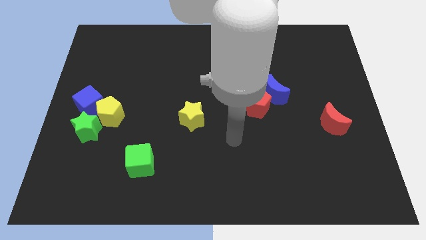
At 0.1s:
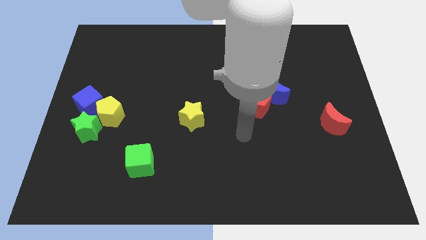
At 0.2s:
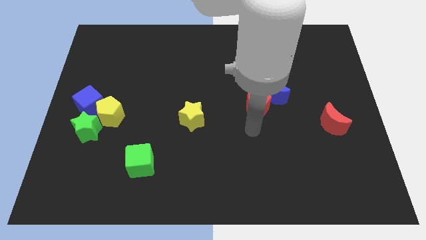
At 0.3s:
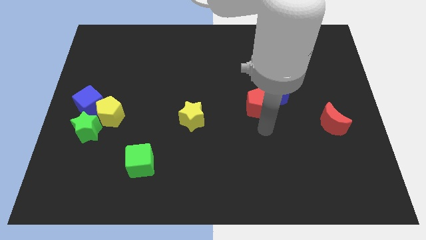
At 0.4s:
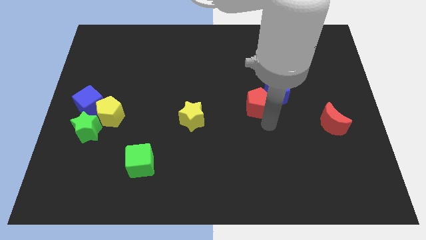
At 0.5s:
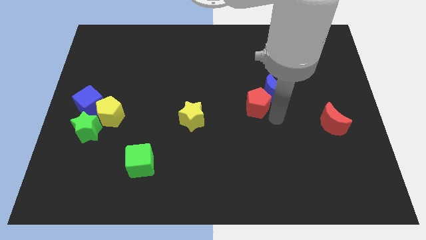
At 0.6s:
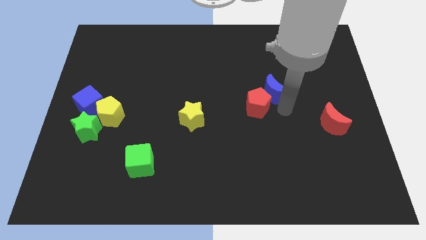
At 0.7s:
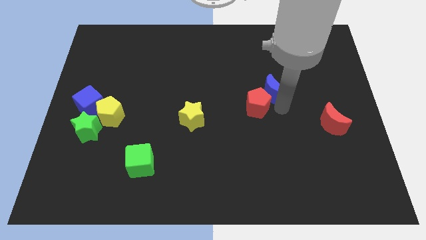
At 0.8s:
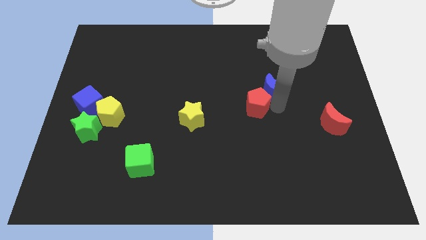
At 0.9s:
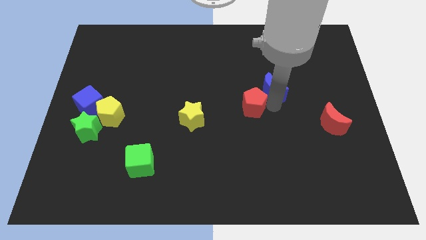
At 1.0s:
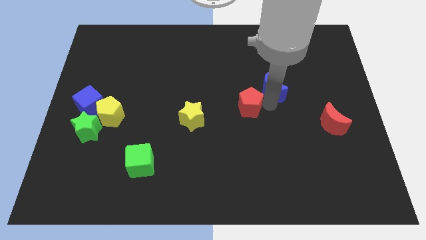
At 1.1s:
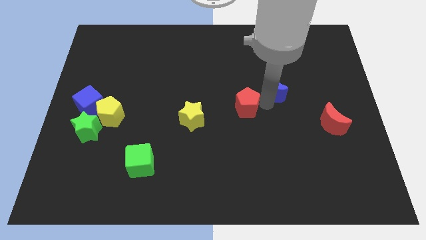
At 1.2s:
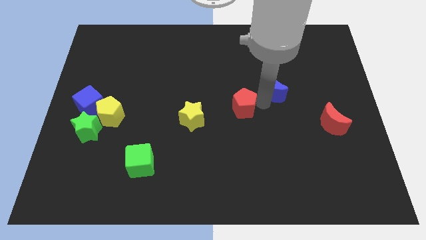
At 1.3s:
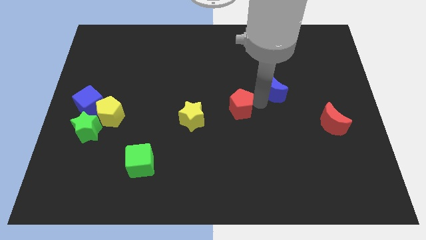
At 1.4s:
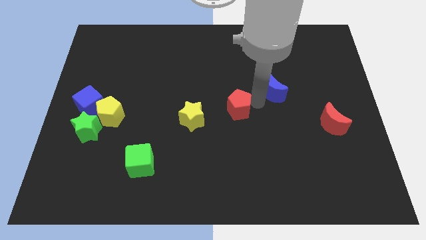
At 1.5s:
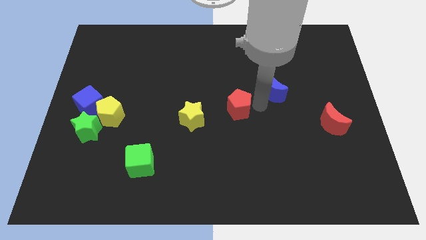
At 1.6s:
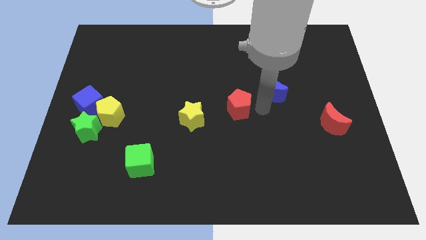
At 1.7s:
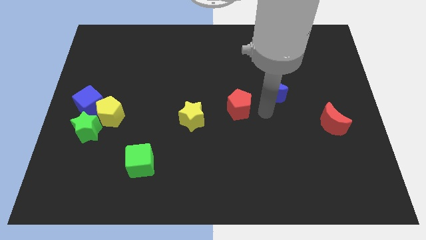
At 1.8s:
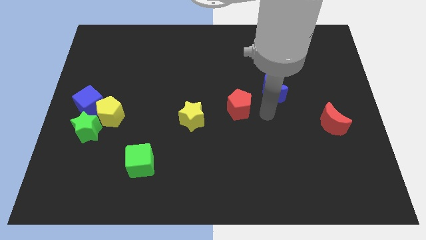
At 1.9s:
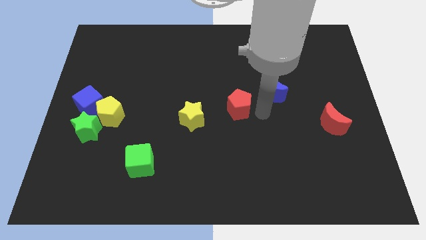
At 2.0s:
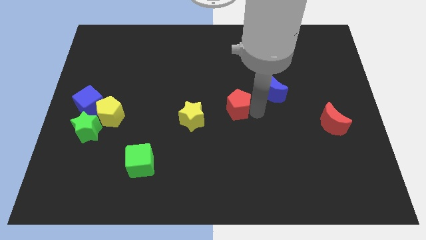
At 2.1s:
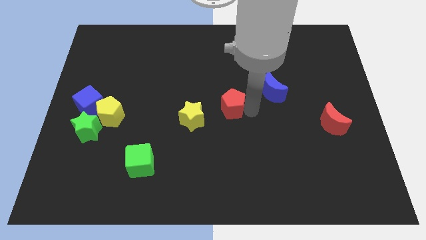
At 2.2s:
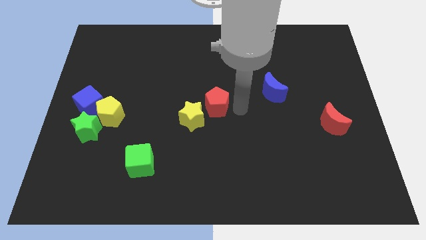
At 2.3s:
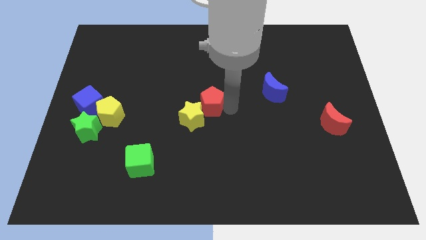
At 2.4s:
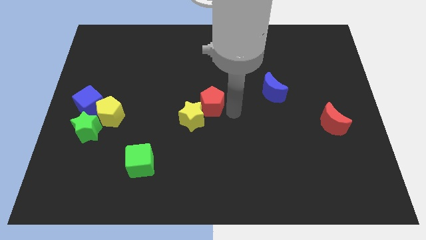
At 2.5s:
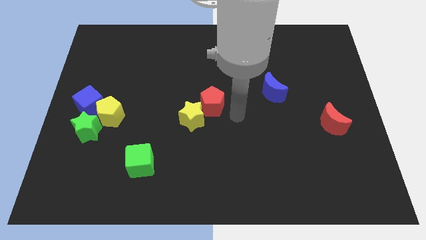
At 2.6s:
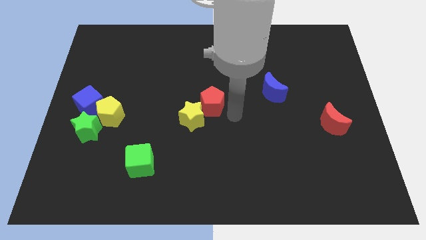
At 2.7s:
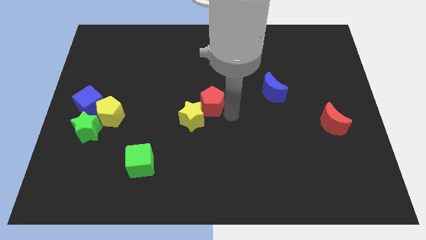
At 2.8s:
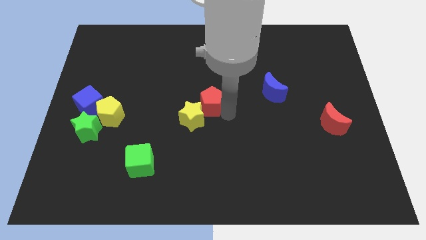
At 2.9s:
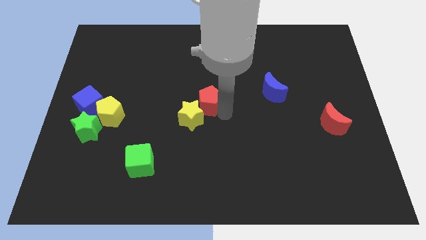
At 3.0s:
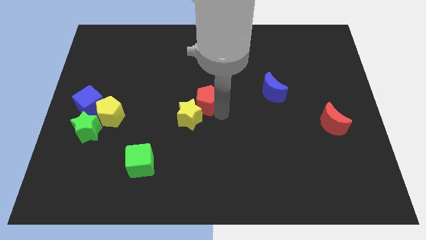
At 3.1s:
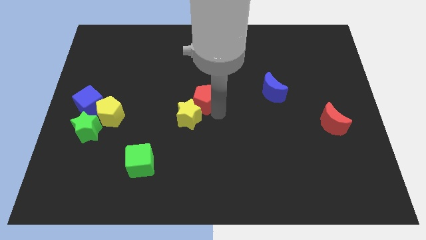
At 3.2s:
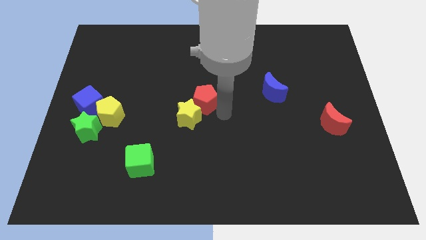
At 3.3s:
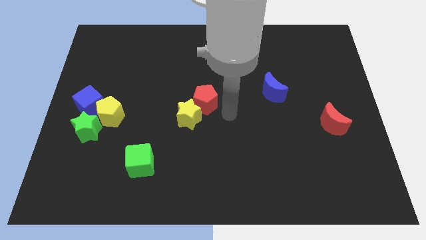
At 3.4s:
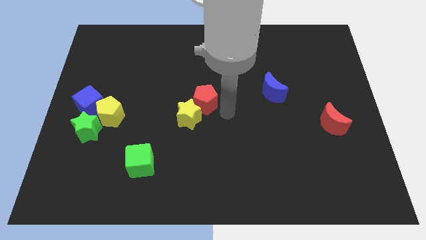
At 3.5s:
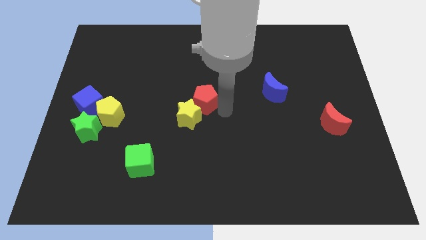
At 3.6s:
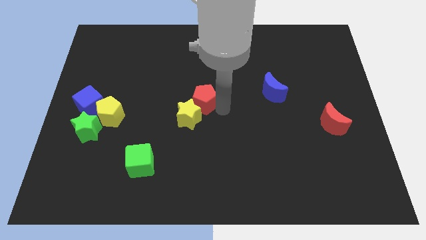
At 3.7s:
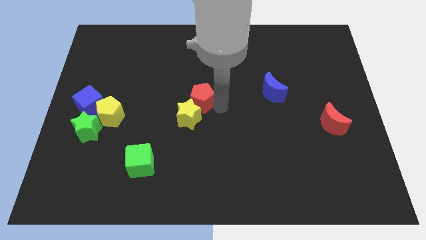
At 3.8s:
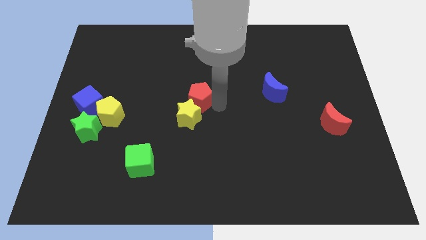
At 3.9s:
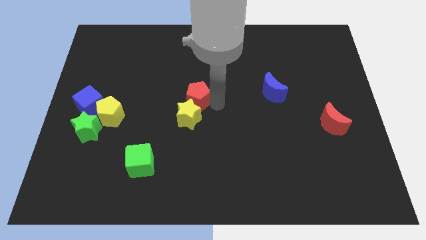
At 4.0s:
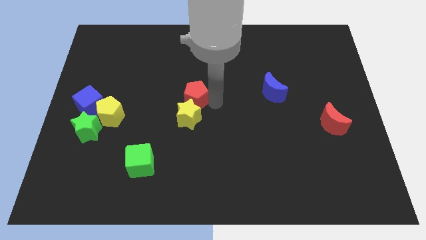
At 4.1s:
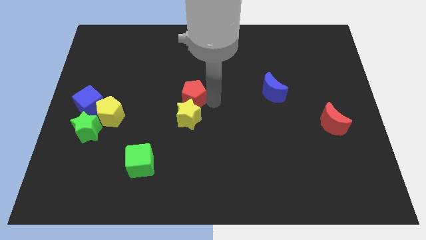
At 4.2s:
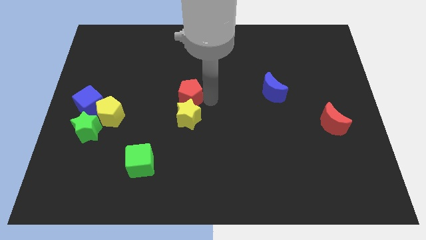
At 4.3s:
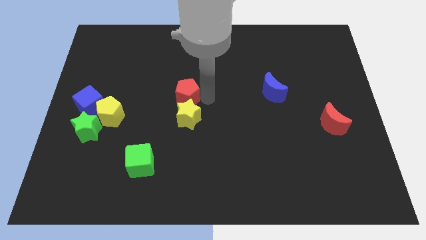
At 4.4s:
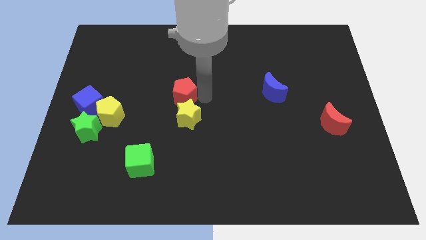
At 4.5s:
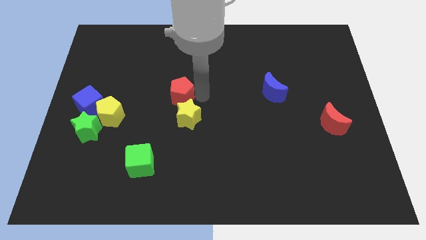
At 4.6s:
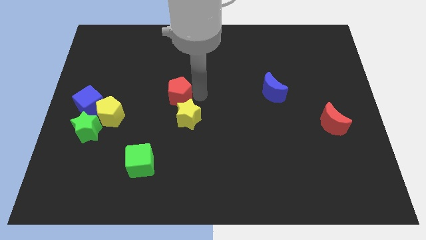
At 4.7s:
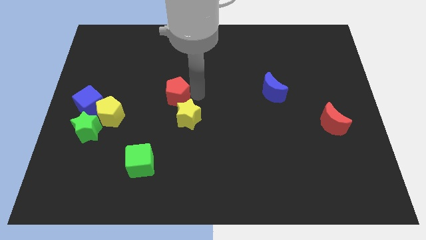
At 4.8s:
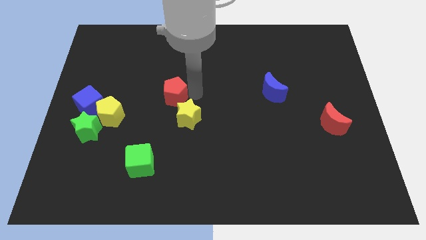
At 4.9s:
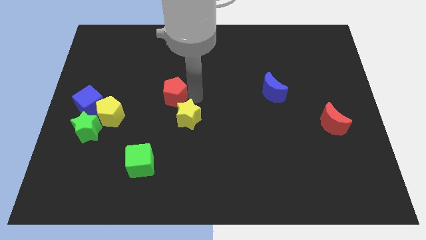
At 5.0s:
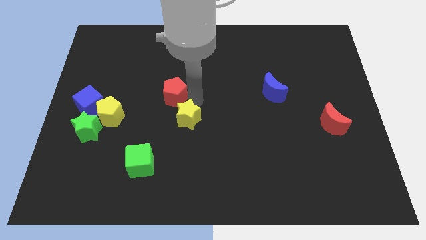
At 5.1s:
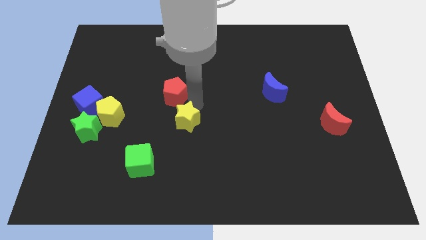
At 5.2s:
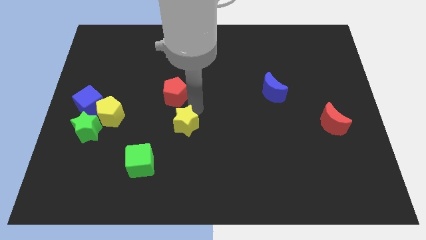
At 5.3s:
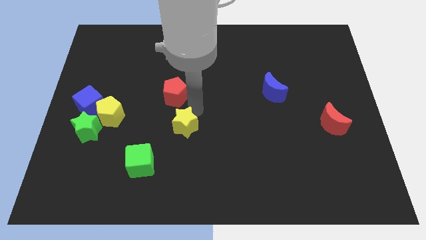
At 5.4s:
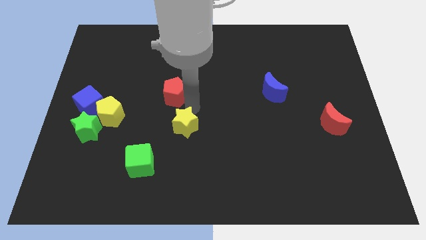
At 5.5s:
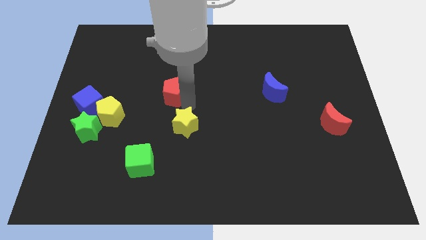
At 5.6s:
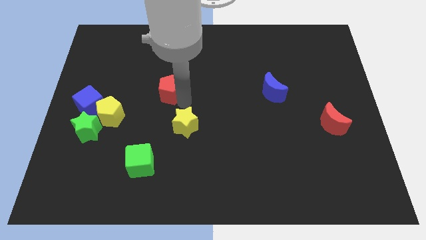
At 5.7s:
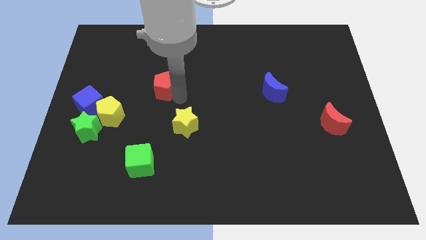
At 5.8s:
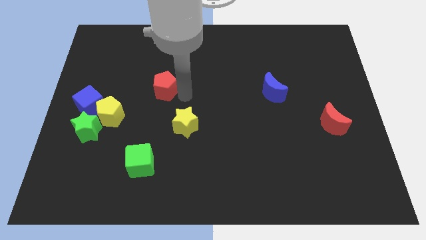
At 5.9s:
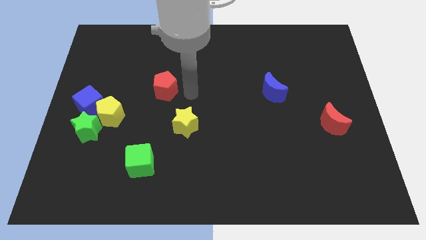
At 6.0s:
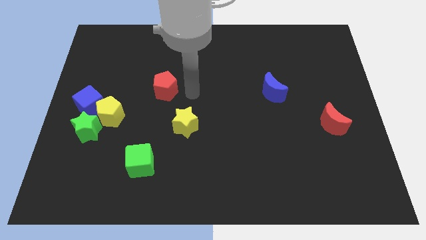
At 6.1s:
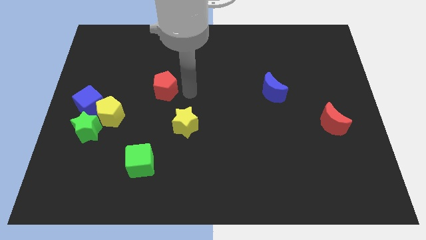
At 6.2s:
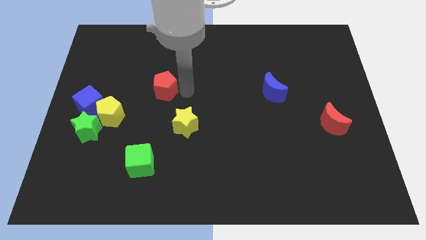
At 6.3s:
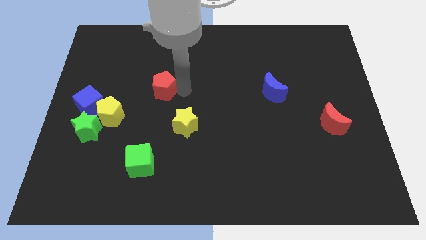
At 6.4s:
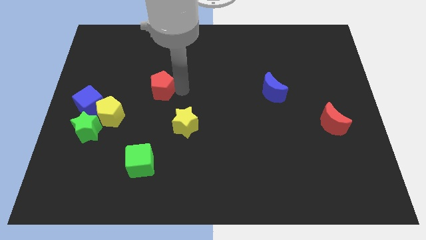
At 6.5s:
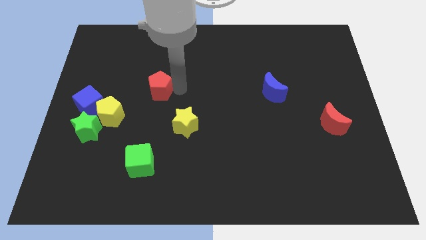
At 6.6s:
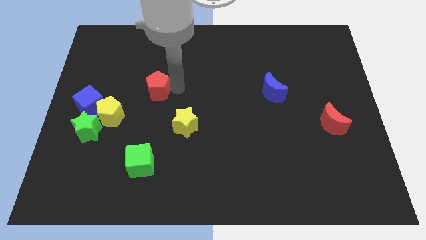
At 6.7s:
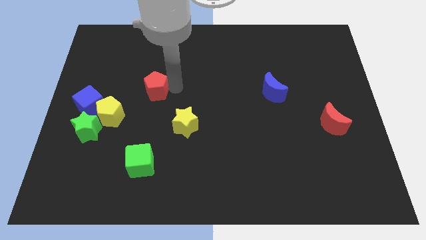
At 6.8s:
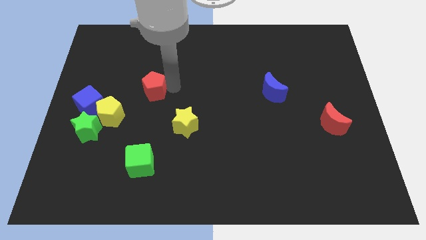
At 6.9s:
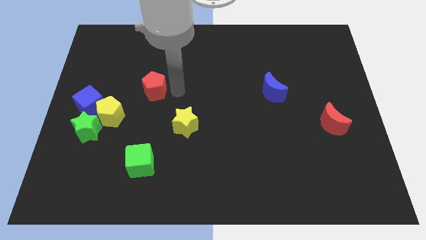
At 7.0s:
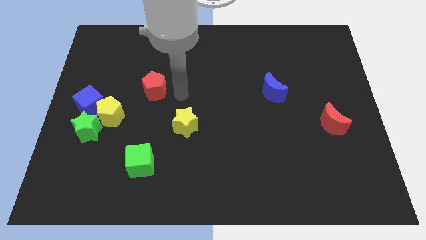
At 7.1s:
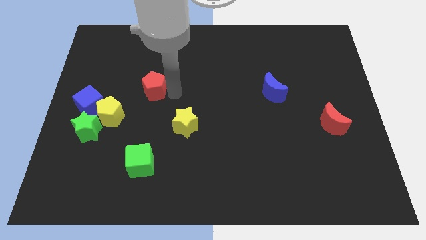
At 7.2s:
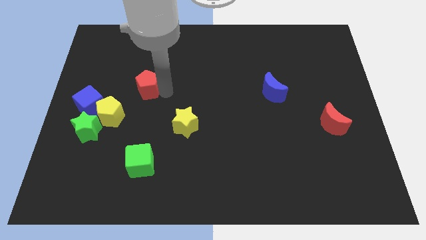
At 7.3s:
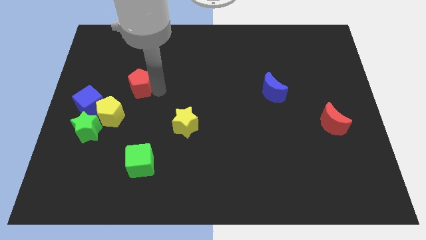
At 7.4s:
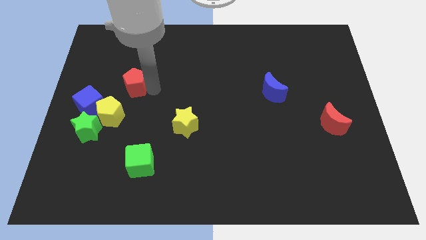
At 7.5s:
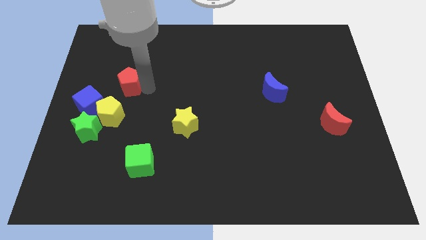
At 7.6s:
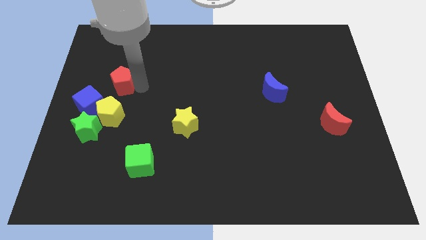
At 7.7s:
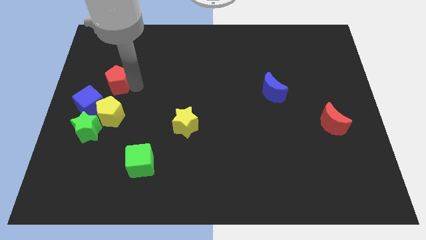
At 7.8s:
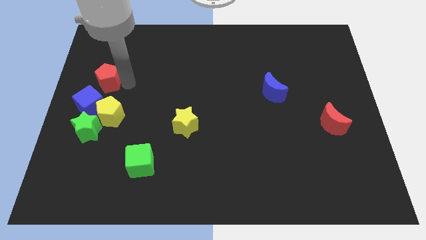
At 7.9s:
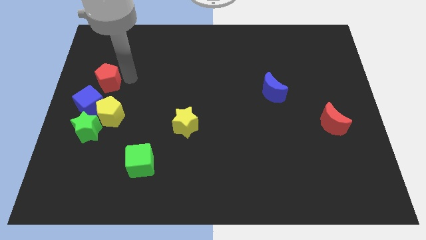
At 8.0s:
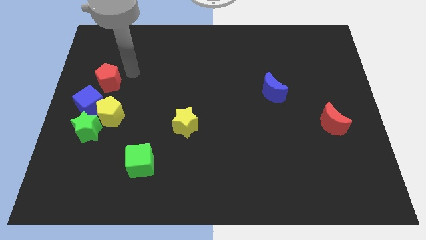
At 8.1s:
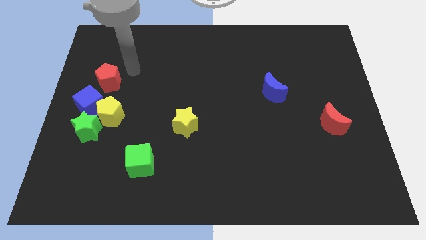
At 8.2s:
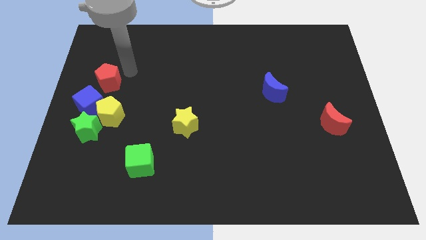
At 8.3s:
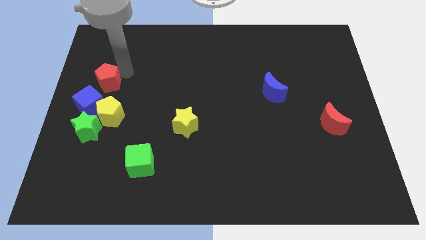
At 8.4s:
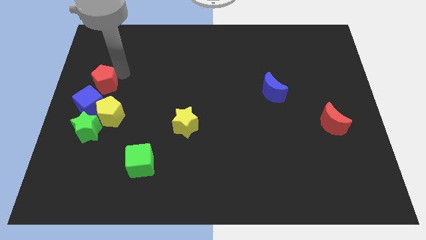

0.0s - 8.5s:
push the red pentagon to the left side of the board
